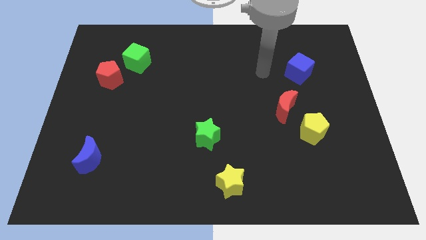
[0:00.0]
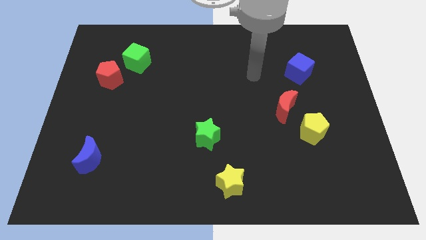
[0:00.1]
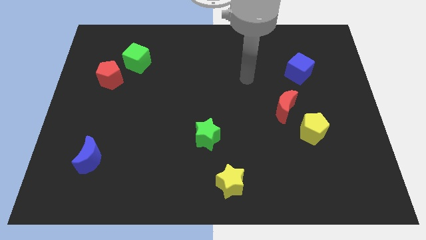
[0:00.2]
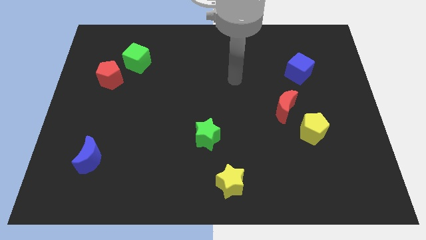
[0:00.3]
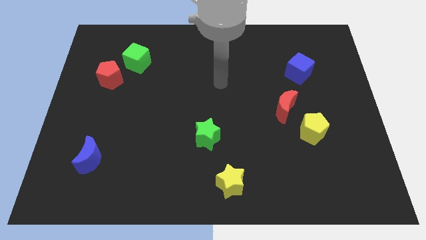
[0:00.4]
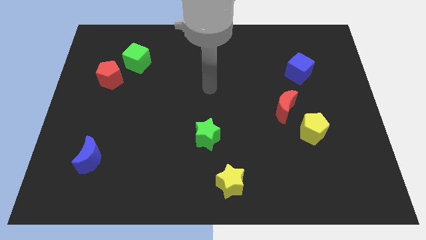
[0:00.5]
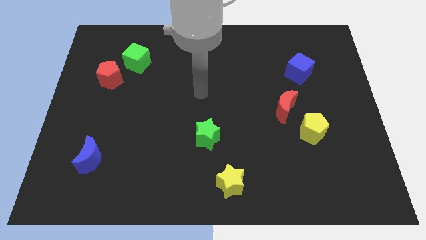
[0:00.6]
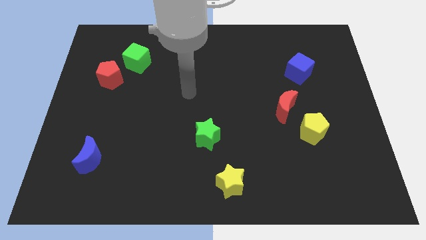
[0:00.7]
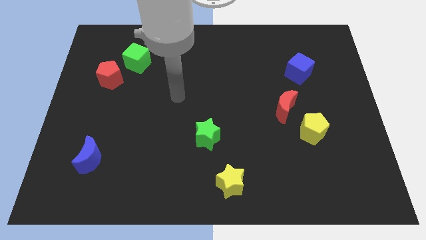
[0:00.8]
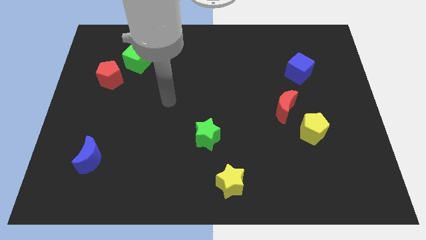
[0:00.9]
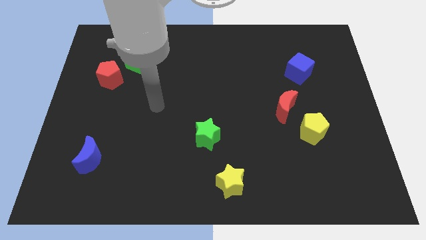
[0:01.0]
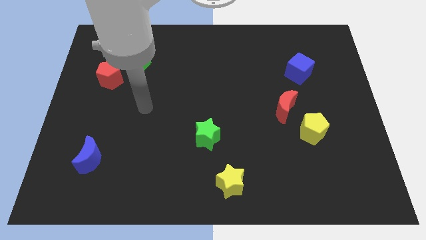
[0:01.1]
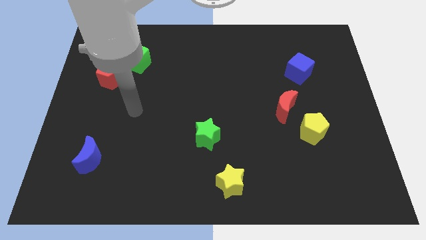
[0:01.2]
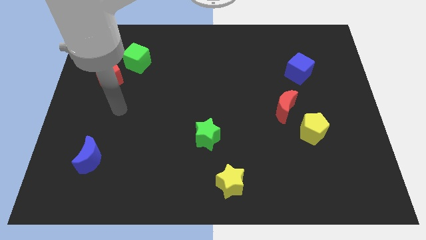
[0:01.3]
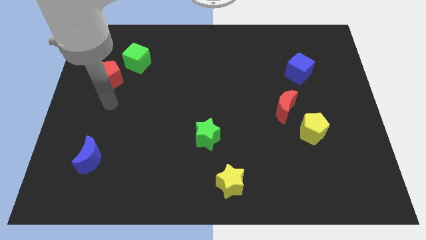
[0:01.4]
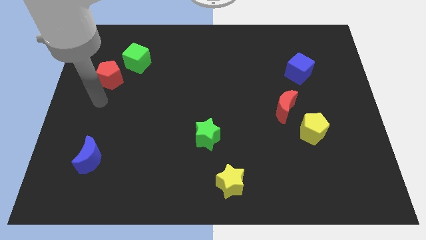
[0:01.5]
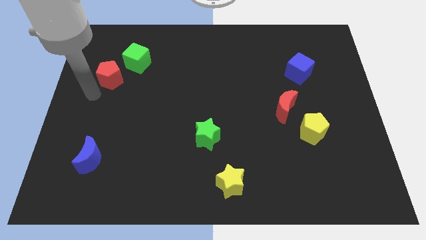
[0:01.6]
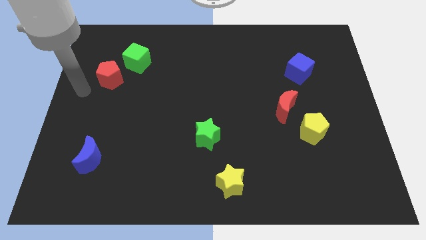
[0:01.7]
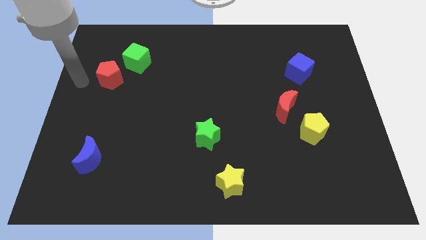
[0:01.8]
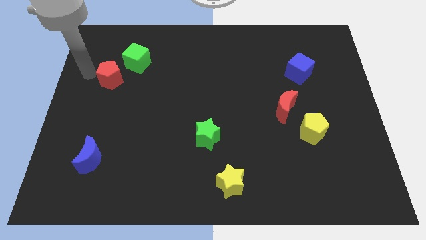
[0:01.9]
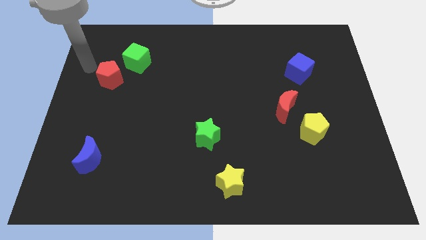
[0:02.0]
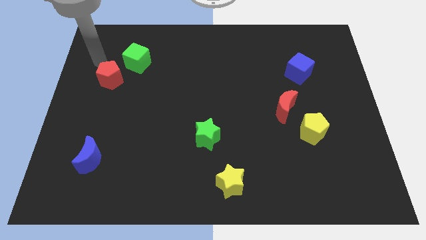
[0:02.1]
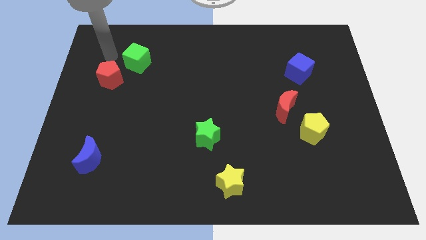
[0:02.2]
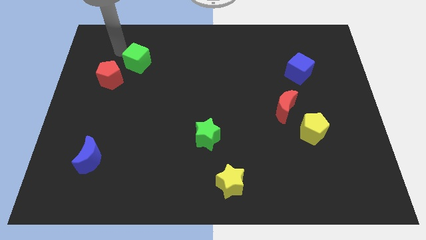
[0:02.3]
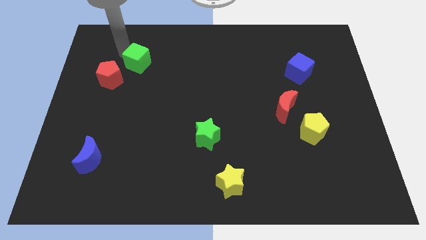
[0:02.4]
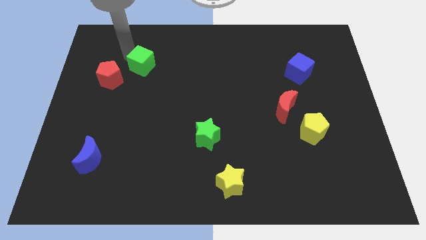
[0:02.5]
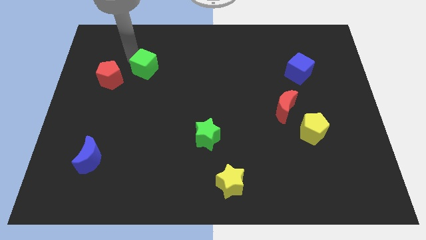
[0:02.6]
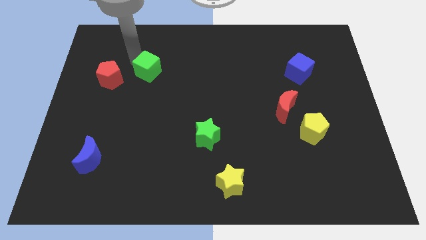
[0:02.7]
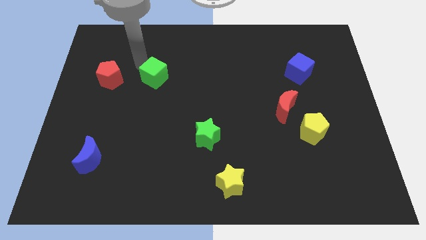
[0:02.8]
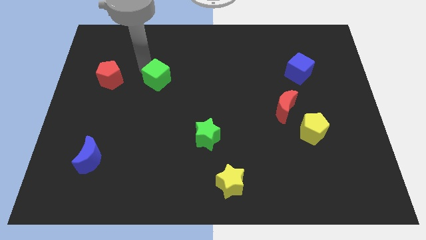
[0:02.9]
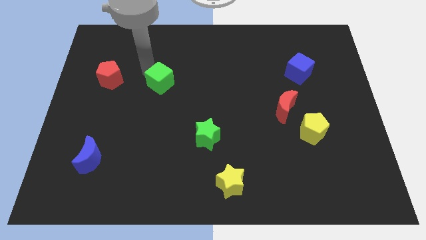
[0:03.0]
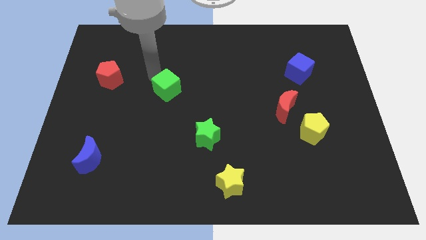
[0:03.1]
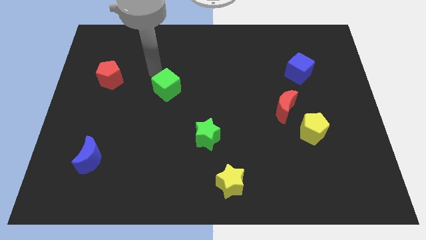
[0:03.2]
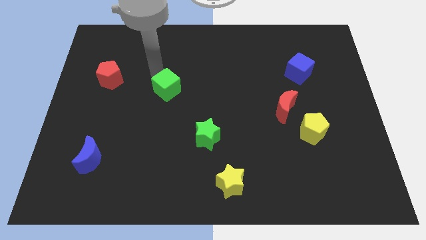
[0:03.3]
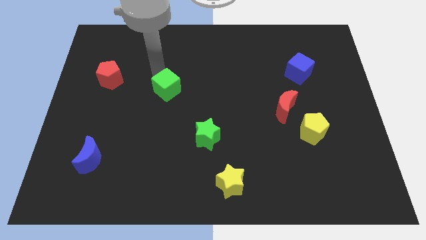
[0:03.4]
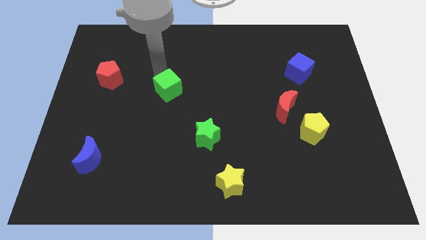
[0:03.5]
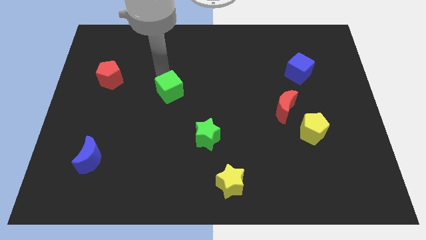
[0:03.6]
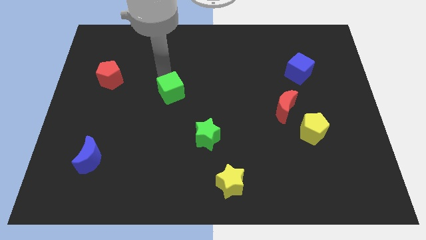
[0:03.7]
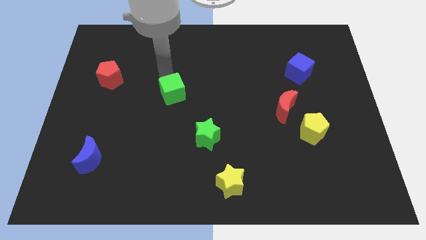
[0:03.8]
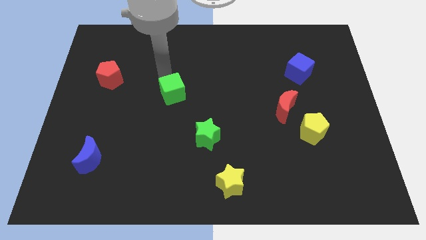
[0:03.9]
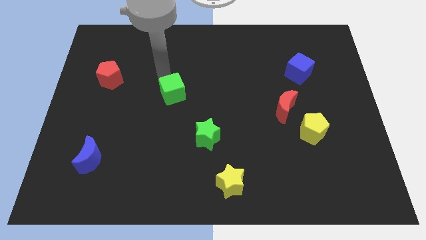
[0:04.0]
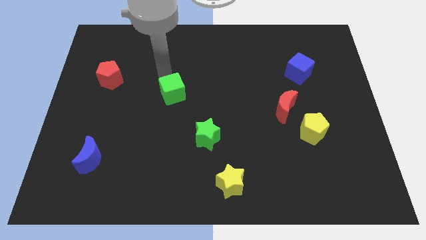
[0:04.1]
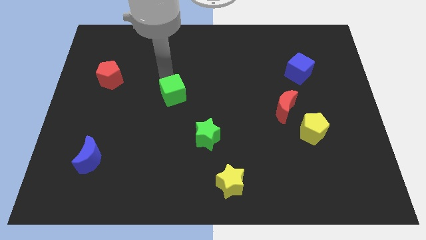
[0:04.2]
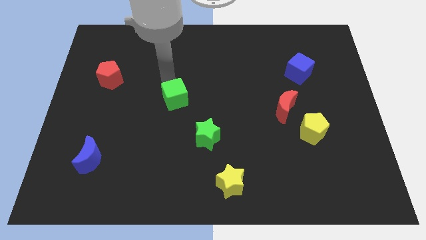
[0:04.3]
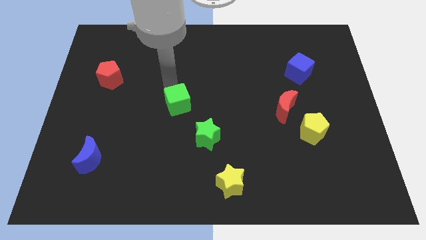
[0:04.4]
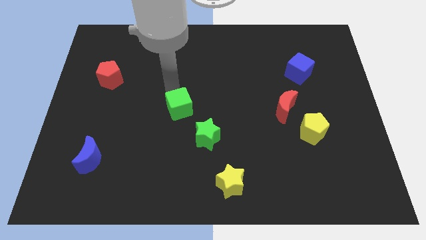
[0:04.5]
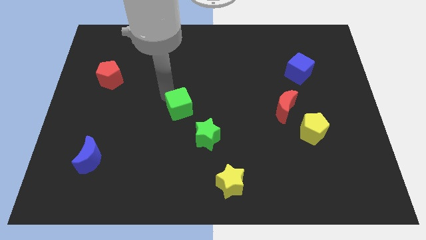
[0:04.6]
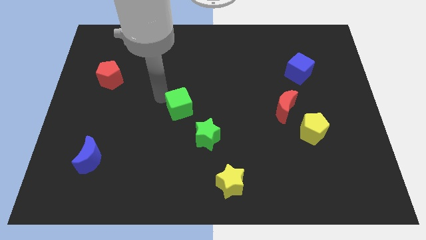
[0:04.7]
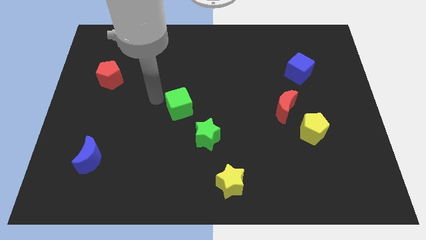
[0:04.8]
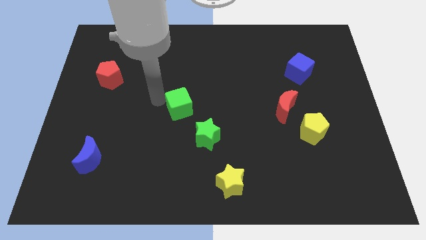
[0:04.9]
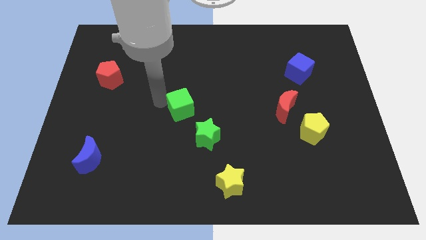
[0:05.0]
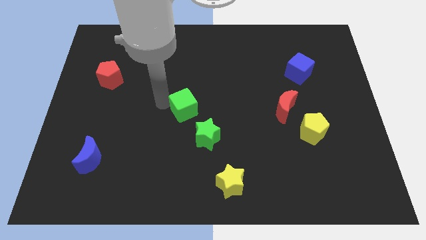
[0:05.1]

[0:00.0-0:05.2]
move the green cube down and to the right diagonally

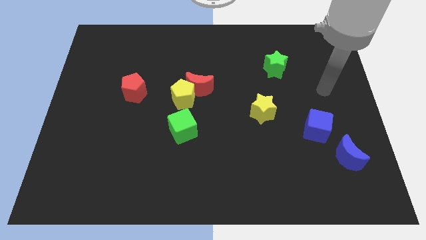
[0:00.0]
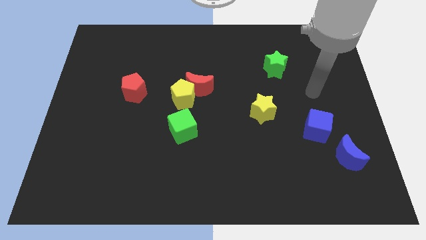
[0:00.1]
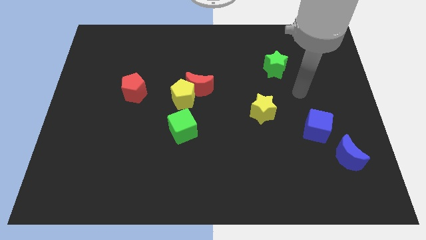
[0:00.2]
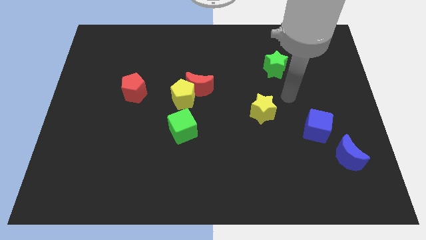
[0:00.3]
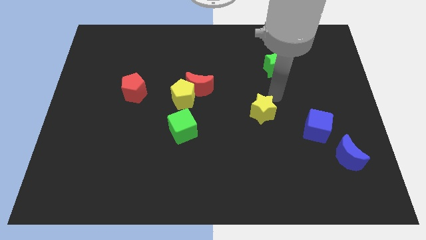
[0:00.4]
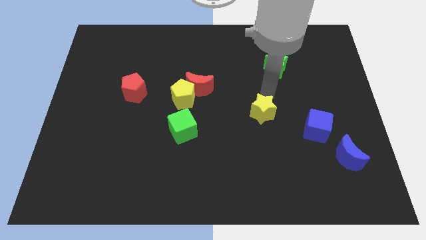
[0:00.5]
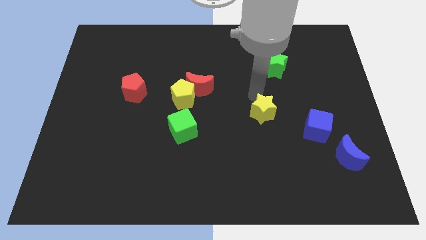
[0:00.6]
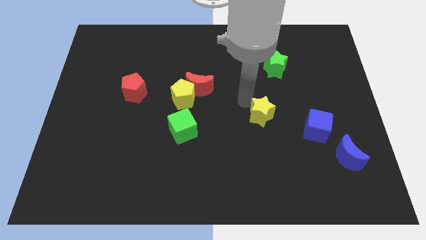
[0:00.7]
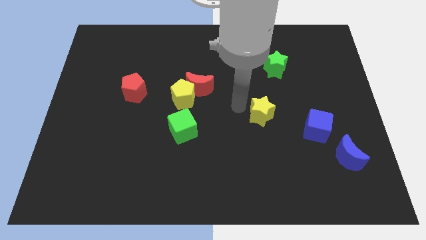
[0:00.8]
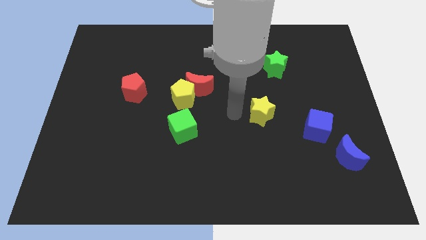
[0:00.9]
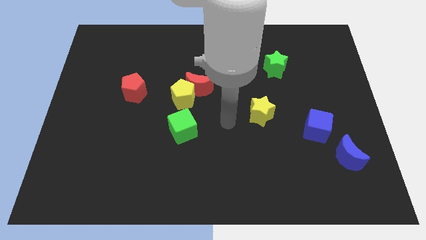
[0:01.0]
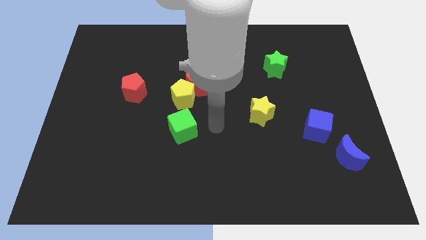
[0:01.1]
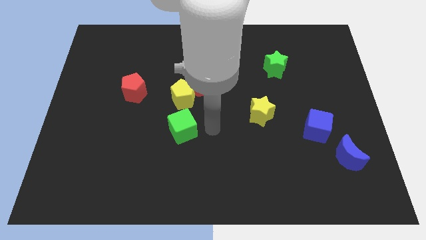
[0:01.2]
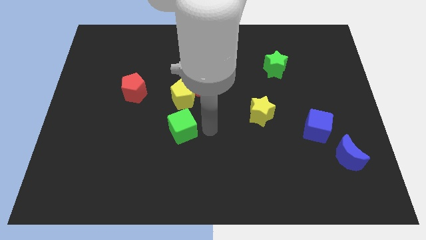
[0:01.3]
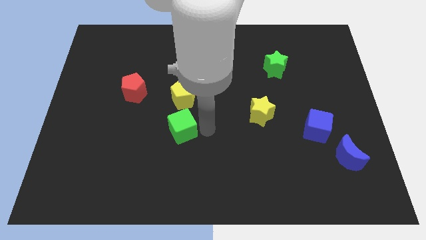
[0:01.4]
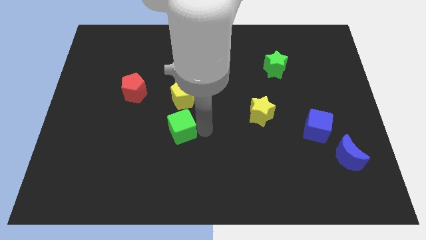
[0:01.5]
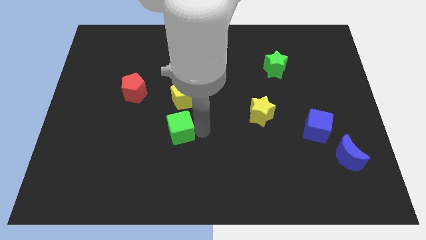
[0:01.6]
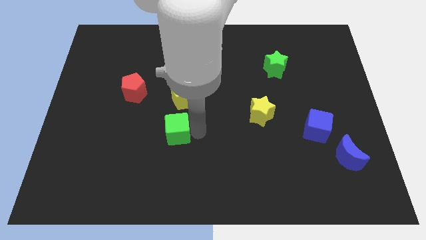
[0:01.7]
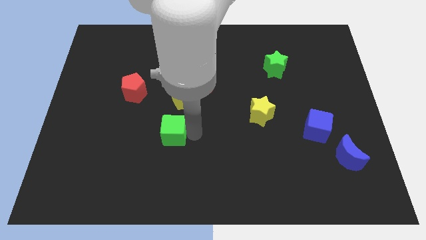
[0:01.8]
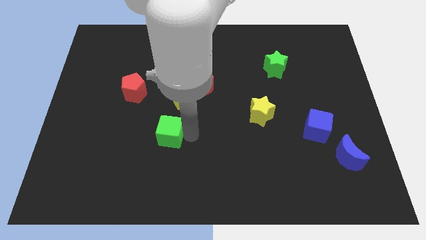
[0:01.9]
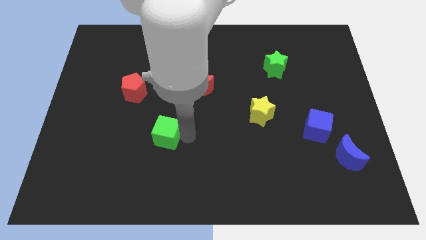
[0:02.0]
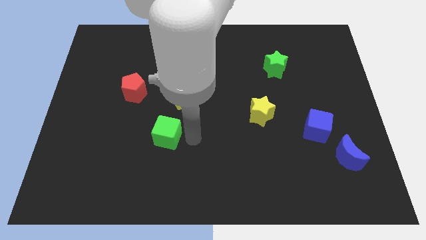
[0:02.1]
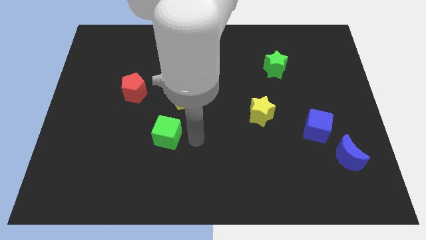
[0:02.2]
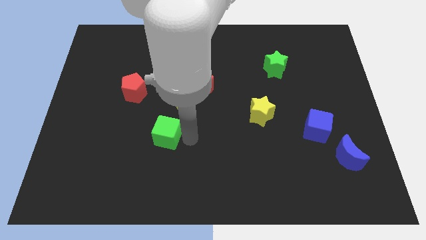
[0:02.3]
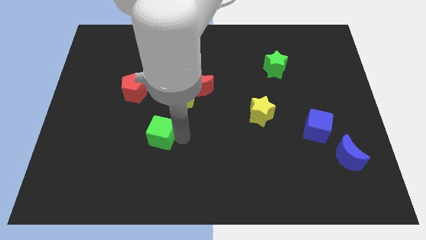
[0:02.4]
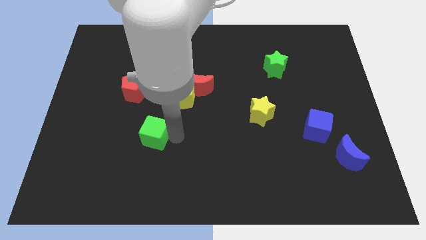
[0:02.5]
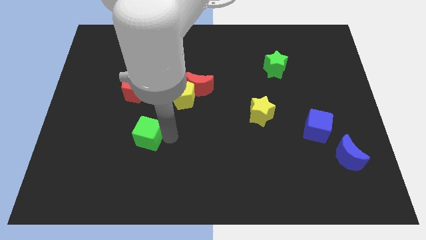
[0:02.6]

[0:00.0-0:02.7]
slightly slide the green cube left
